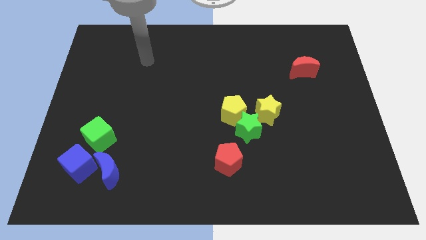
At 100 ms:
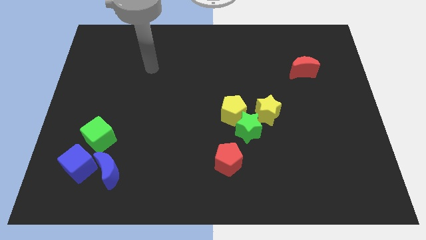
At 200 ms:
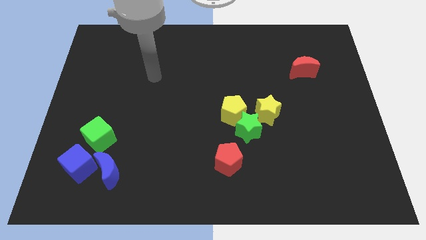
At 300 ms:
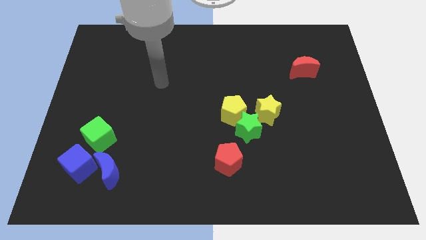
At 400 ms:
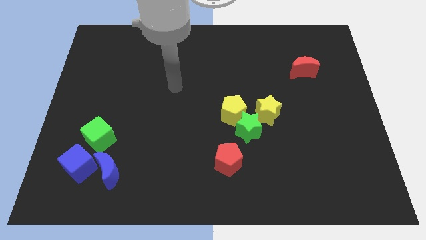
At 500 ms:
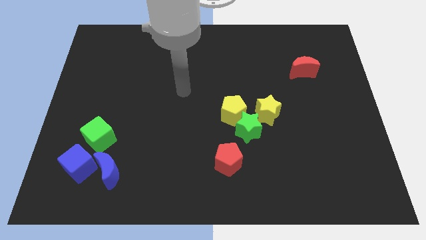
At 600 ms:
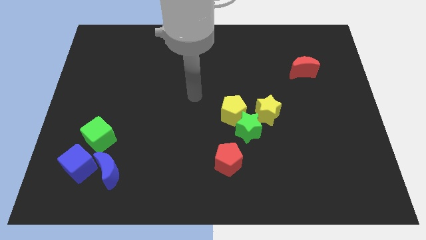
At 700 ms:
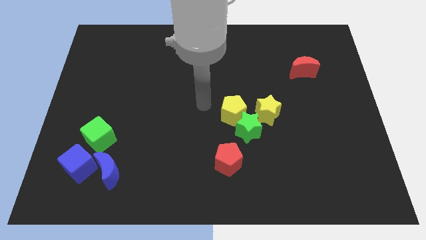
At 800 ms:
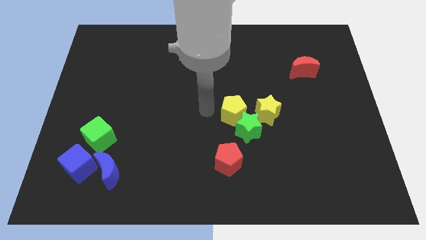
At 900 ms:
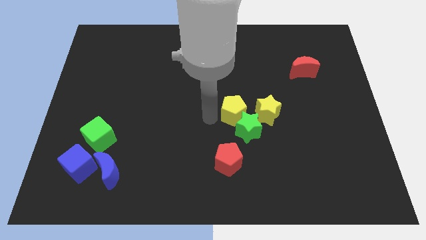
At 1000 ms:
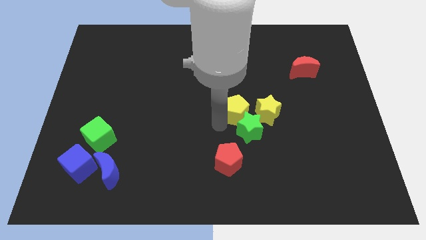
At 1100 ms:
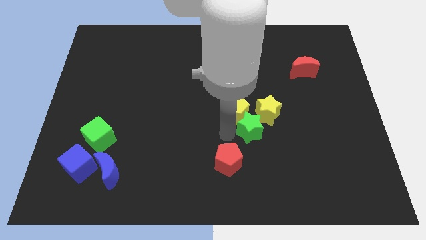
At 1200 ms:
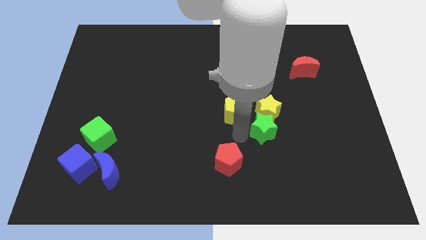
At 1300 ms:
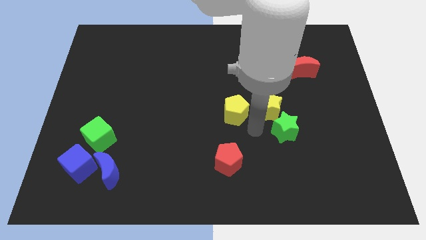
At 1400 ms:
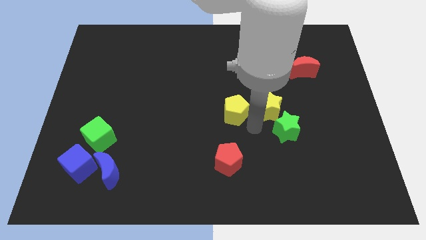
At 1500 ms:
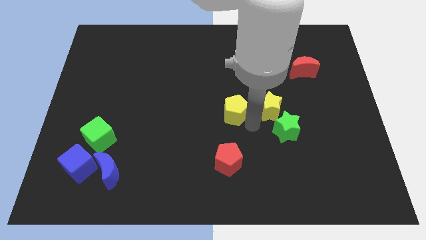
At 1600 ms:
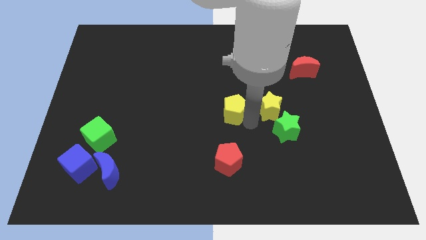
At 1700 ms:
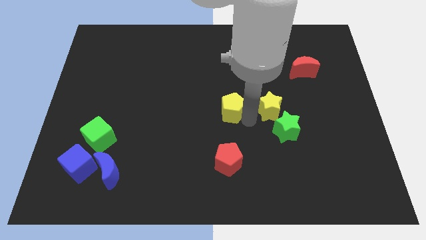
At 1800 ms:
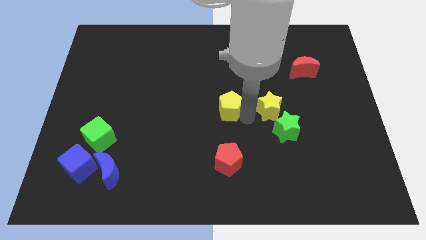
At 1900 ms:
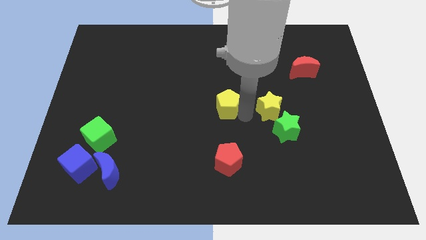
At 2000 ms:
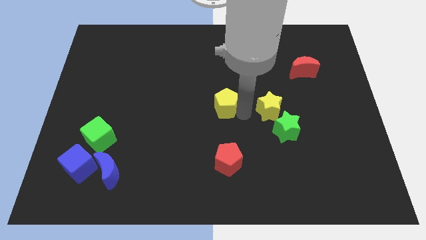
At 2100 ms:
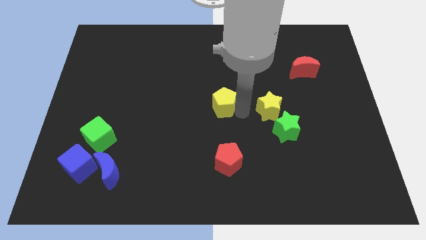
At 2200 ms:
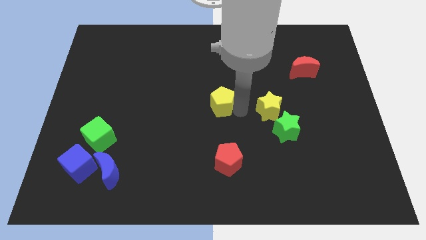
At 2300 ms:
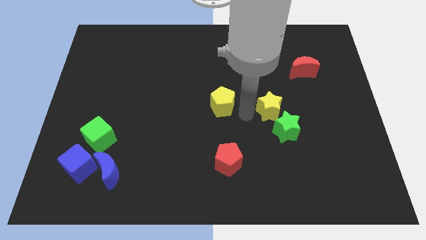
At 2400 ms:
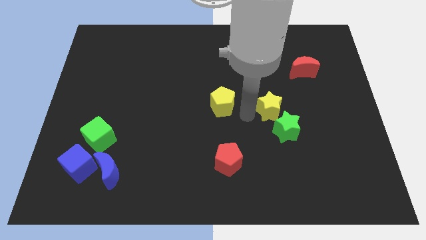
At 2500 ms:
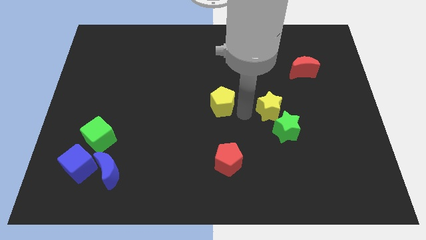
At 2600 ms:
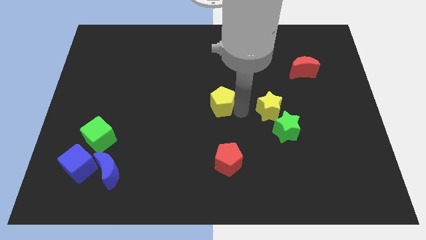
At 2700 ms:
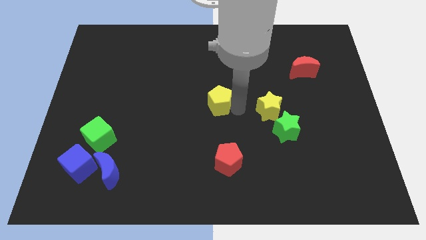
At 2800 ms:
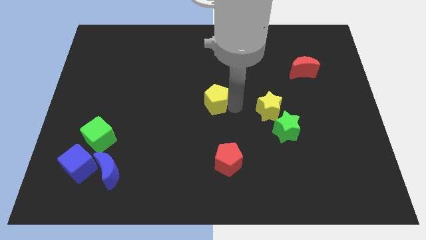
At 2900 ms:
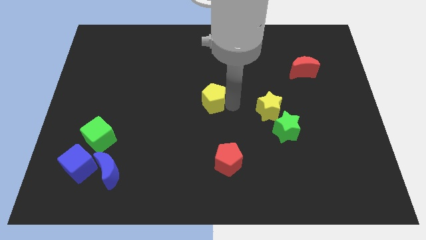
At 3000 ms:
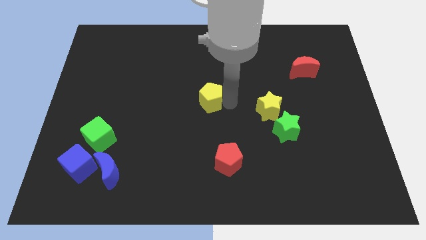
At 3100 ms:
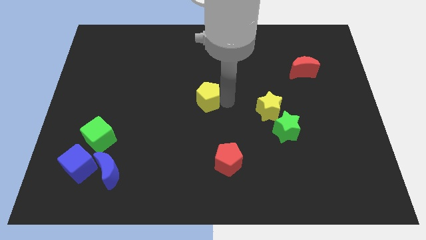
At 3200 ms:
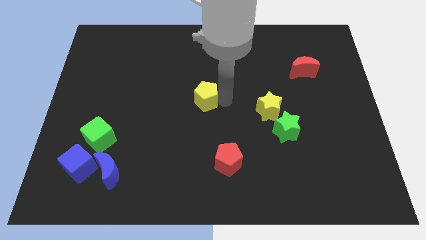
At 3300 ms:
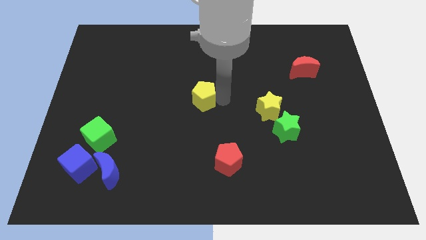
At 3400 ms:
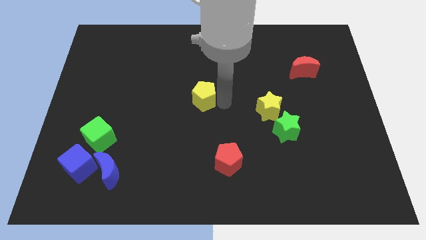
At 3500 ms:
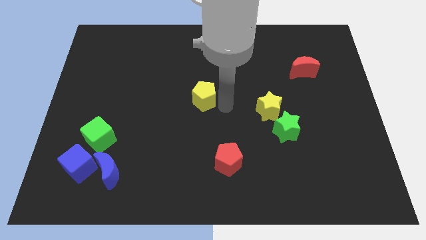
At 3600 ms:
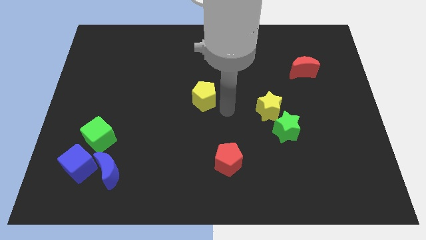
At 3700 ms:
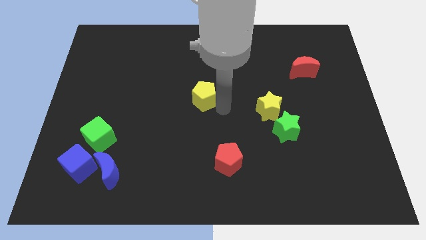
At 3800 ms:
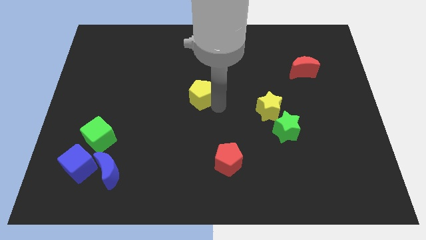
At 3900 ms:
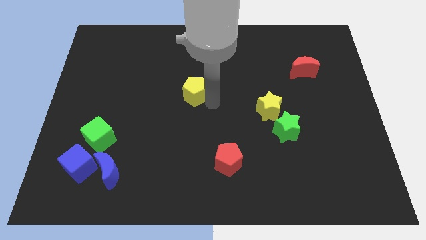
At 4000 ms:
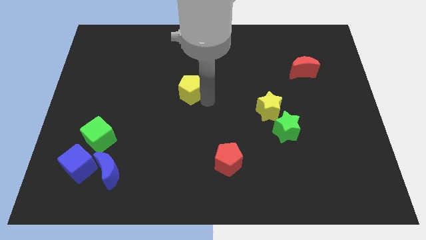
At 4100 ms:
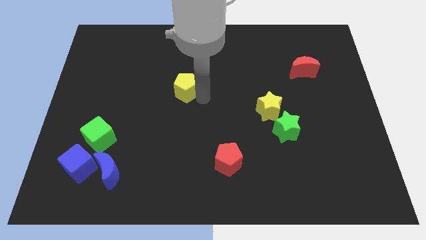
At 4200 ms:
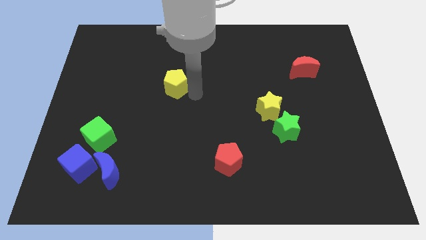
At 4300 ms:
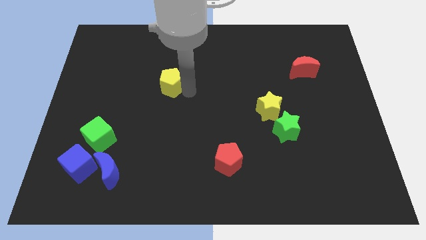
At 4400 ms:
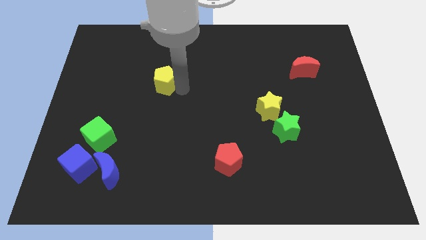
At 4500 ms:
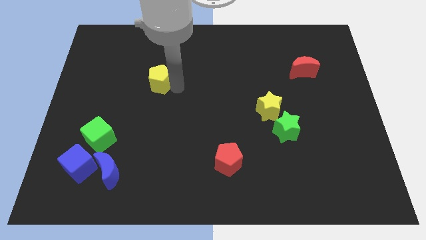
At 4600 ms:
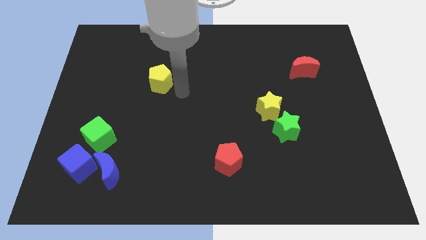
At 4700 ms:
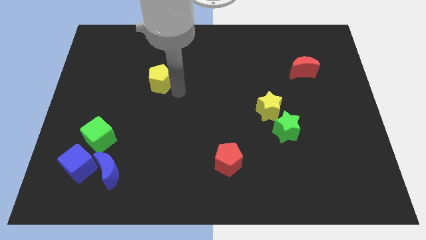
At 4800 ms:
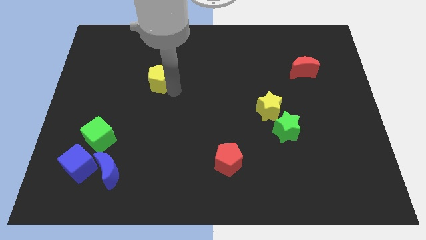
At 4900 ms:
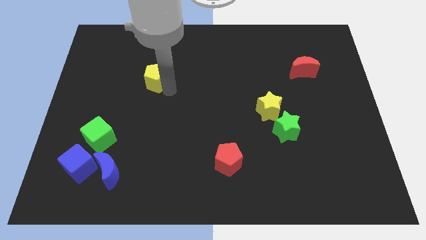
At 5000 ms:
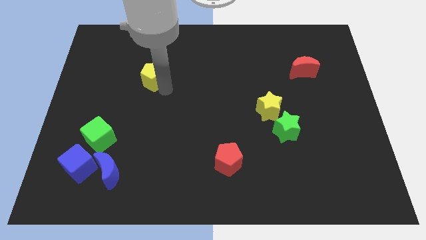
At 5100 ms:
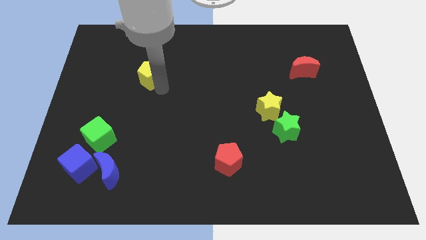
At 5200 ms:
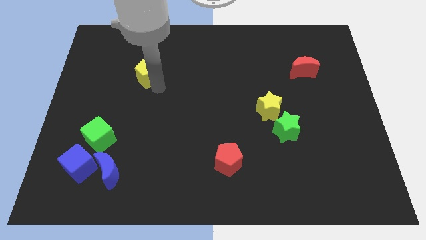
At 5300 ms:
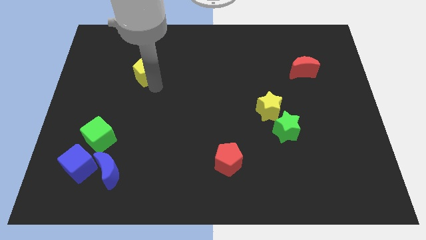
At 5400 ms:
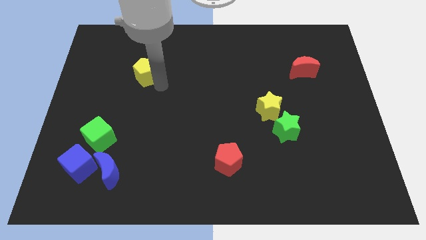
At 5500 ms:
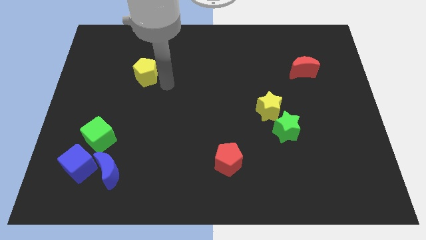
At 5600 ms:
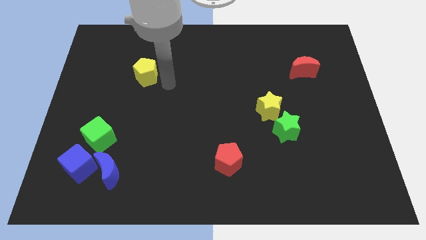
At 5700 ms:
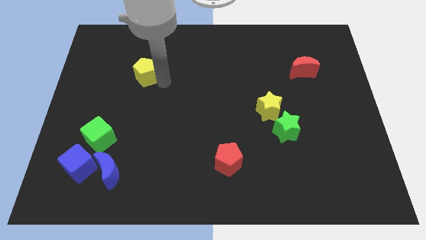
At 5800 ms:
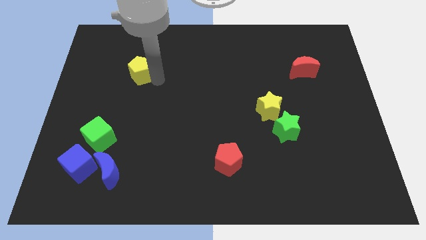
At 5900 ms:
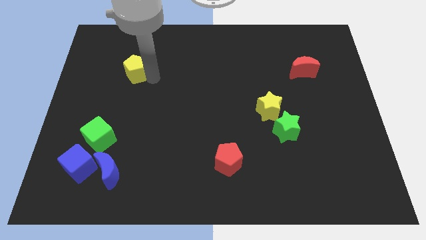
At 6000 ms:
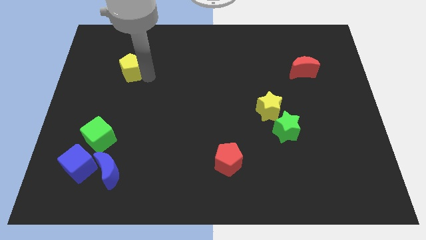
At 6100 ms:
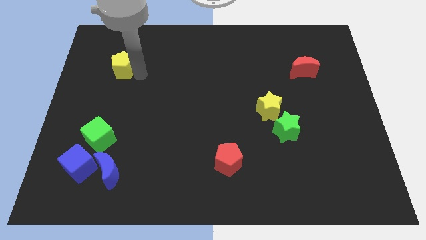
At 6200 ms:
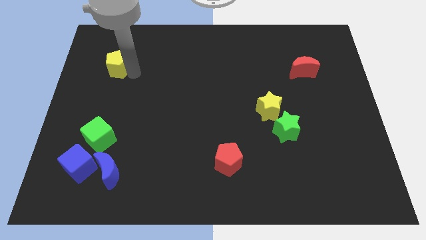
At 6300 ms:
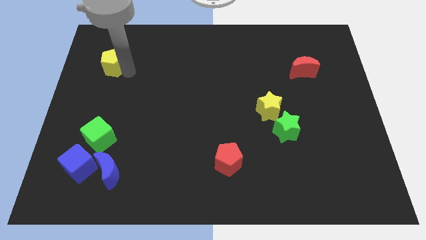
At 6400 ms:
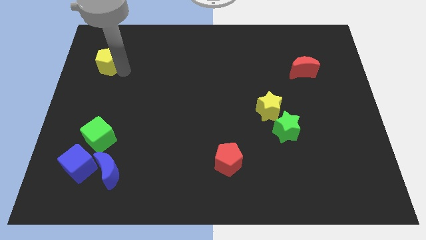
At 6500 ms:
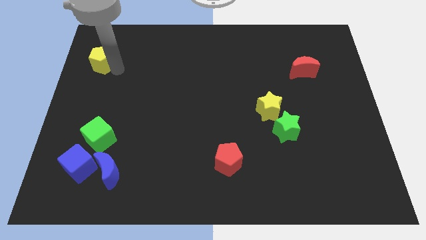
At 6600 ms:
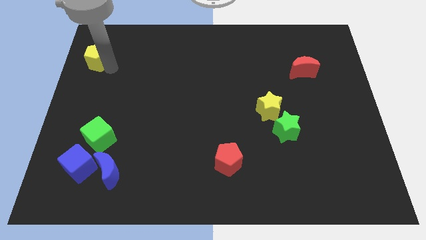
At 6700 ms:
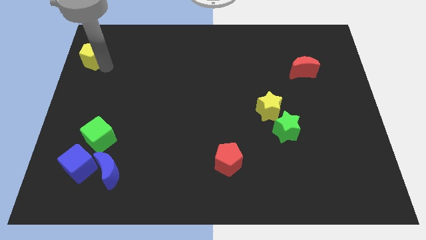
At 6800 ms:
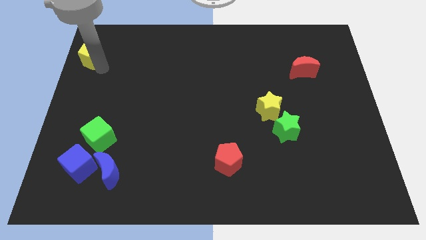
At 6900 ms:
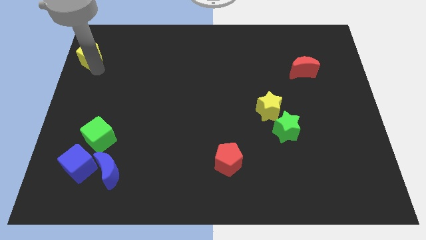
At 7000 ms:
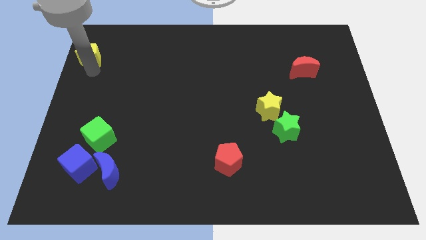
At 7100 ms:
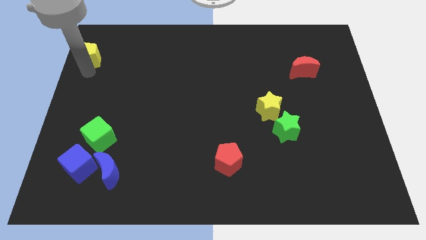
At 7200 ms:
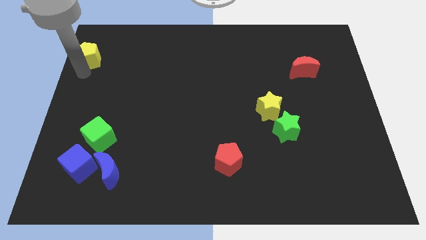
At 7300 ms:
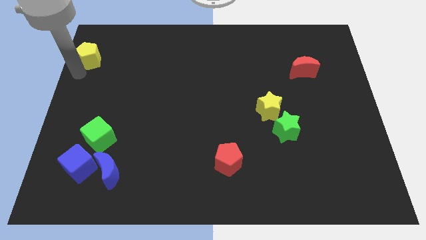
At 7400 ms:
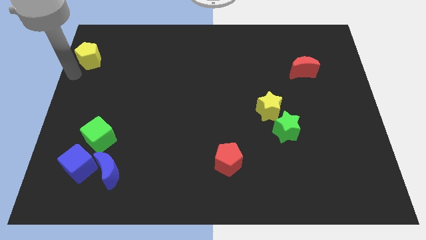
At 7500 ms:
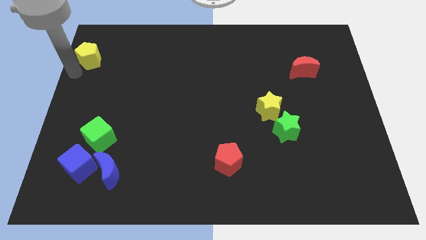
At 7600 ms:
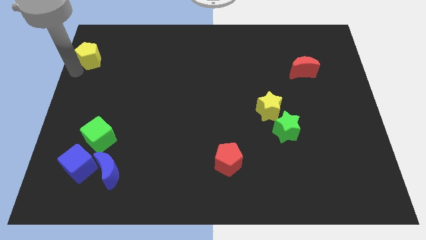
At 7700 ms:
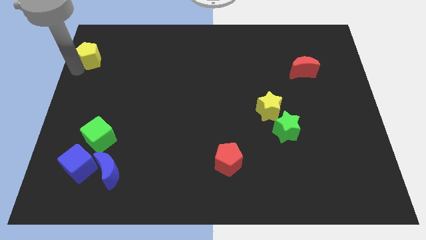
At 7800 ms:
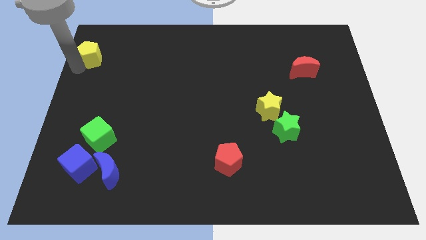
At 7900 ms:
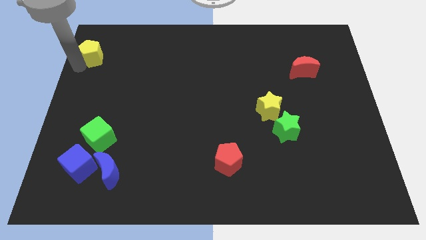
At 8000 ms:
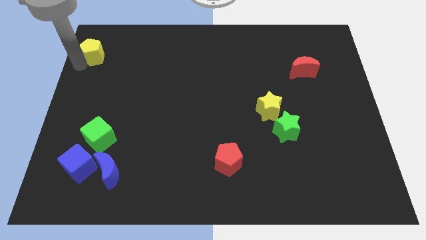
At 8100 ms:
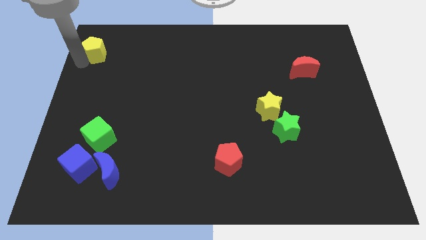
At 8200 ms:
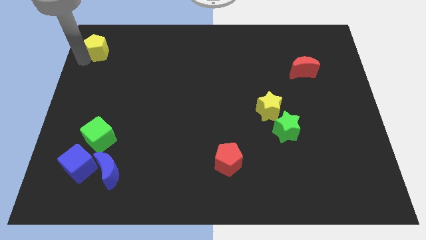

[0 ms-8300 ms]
slide the yellow pentagon to the top left
